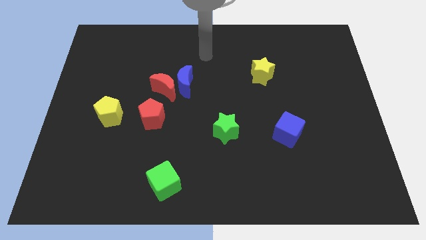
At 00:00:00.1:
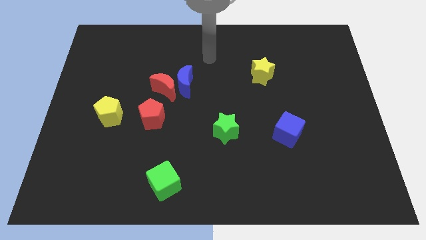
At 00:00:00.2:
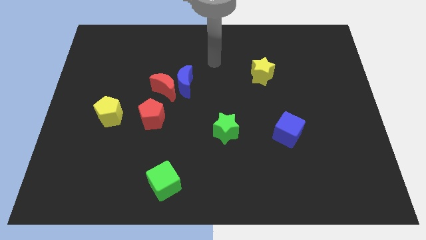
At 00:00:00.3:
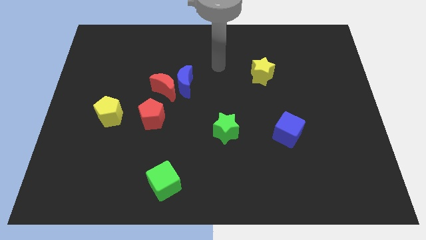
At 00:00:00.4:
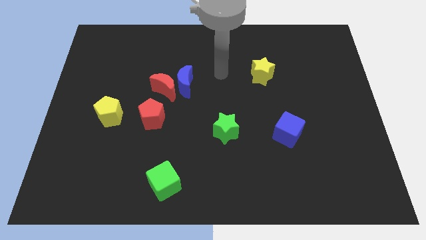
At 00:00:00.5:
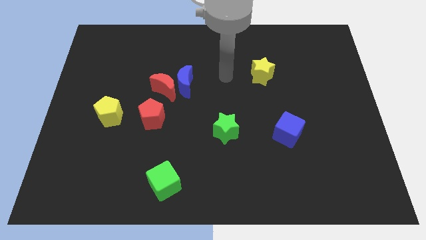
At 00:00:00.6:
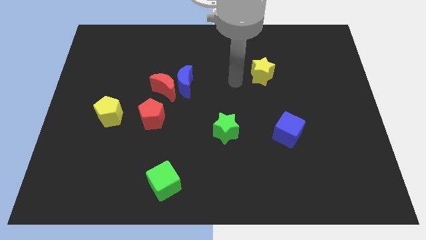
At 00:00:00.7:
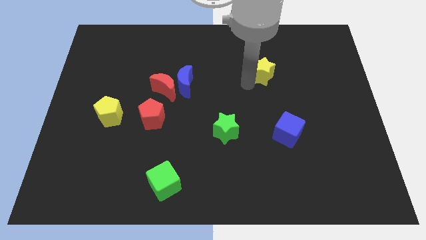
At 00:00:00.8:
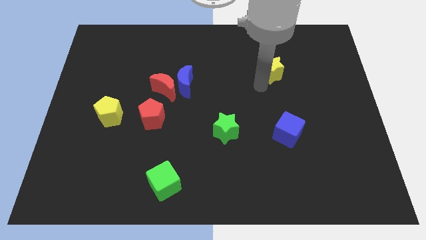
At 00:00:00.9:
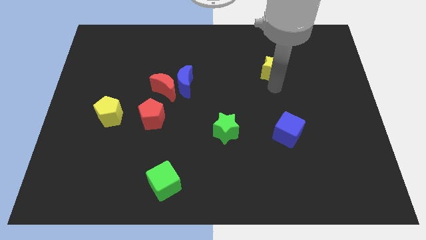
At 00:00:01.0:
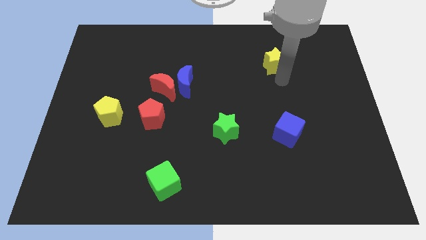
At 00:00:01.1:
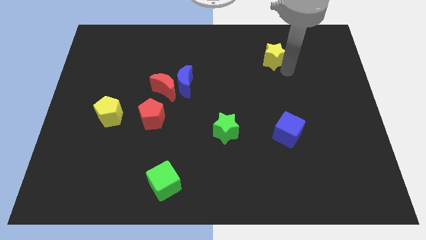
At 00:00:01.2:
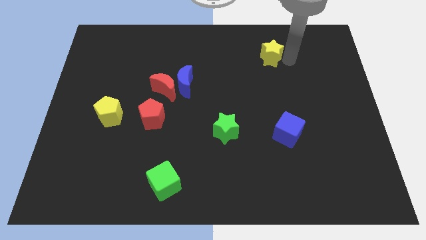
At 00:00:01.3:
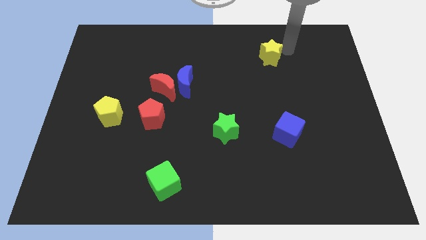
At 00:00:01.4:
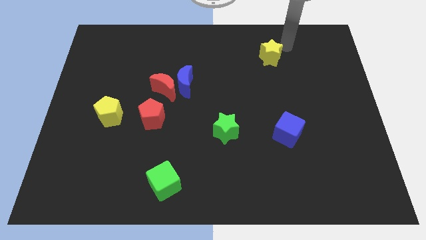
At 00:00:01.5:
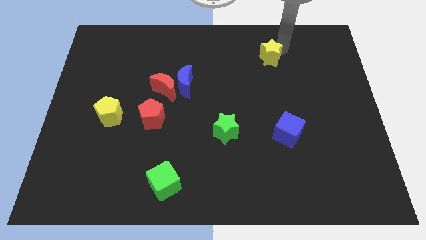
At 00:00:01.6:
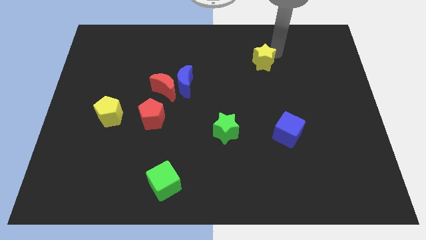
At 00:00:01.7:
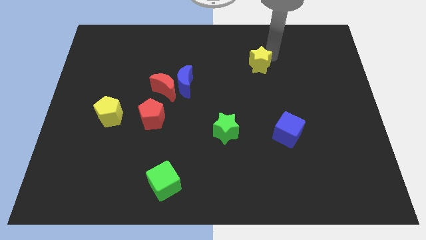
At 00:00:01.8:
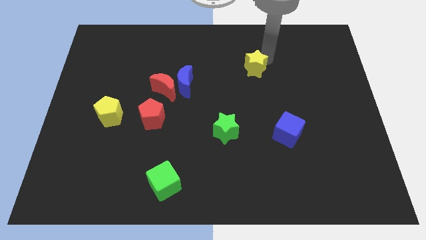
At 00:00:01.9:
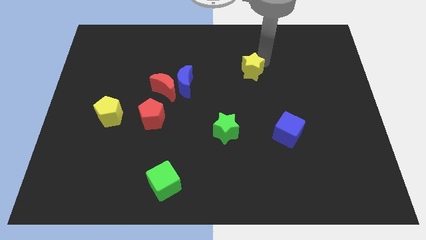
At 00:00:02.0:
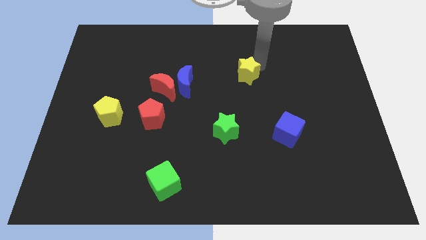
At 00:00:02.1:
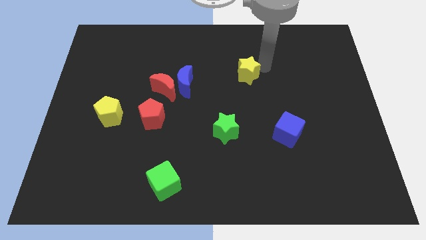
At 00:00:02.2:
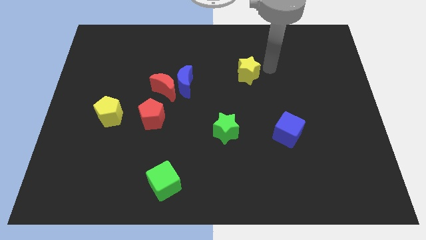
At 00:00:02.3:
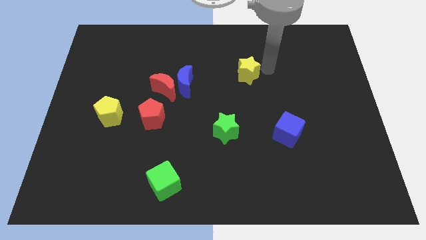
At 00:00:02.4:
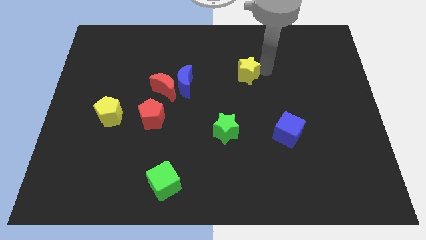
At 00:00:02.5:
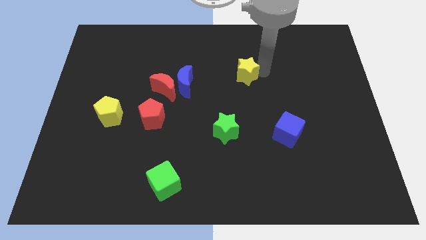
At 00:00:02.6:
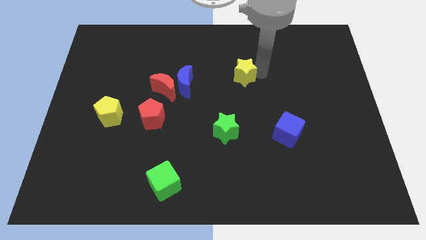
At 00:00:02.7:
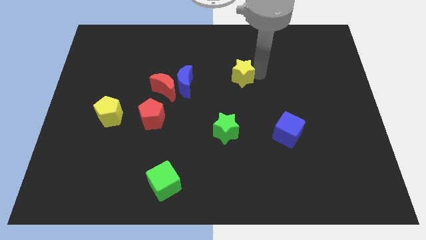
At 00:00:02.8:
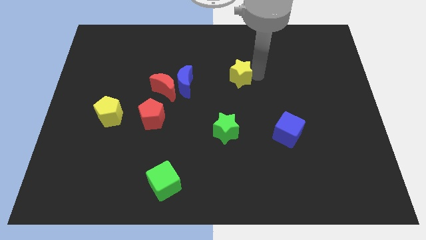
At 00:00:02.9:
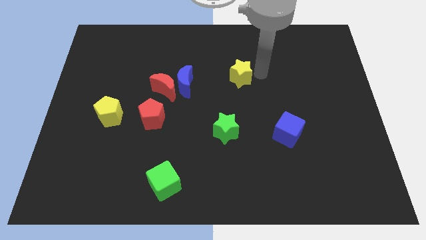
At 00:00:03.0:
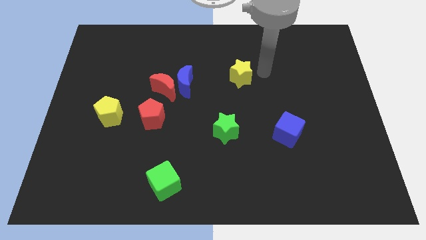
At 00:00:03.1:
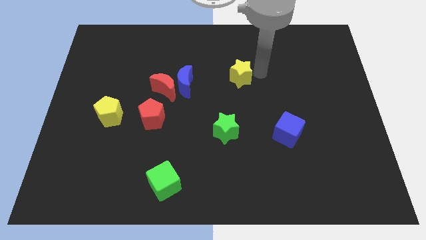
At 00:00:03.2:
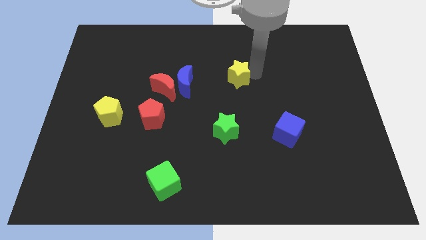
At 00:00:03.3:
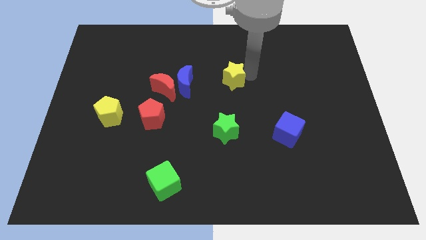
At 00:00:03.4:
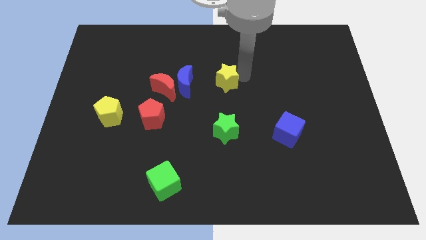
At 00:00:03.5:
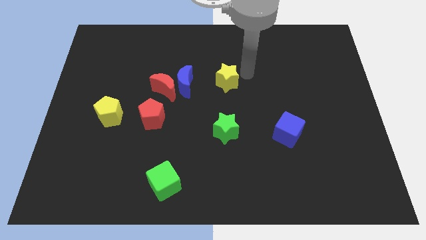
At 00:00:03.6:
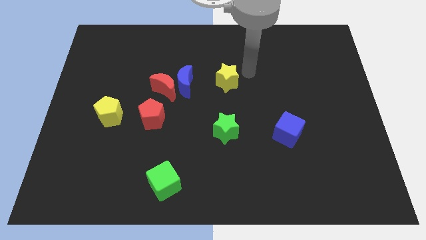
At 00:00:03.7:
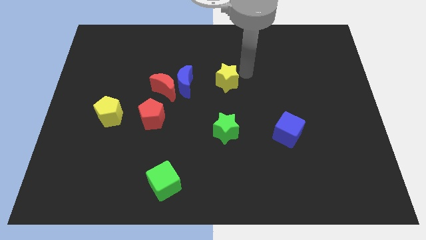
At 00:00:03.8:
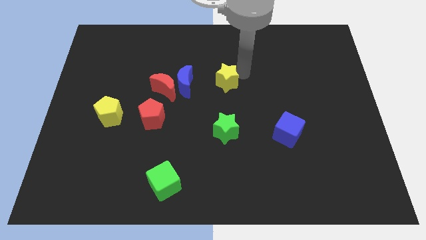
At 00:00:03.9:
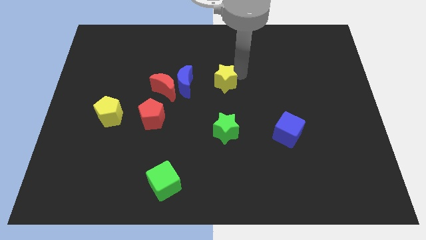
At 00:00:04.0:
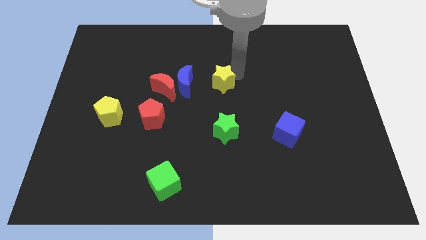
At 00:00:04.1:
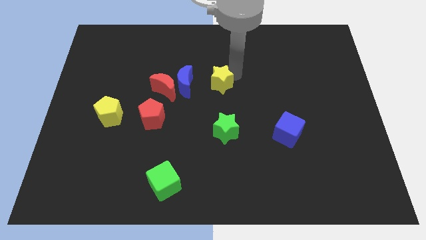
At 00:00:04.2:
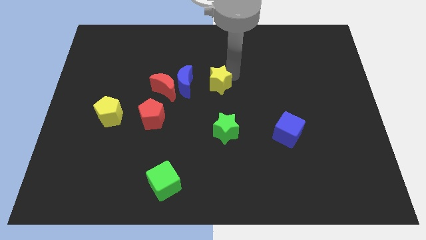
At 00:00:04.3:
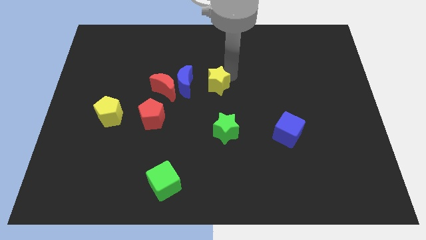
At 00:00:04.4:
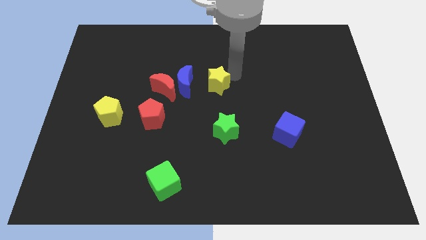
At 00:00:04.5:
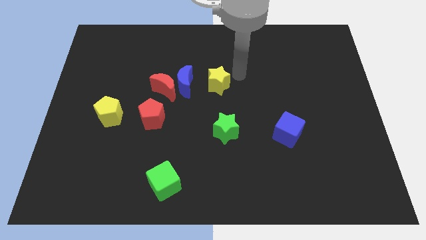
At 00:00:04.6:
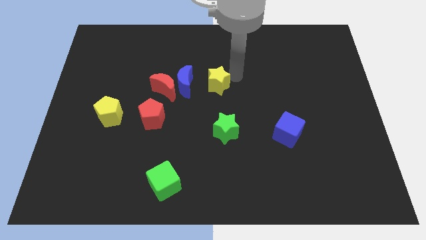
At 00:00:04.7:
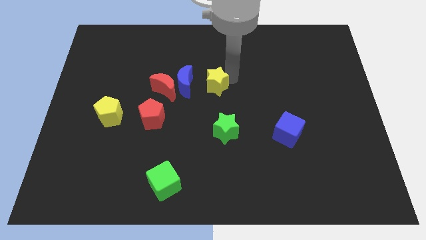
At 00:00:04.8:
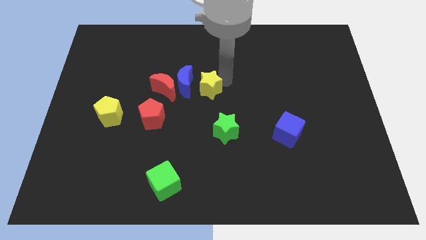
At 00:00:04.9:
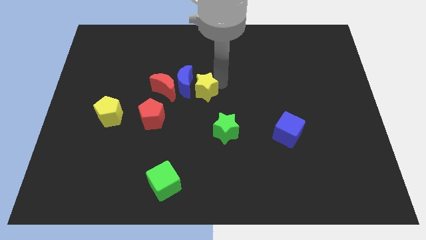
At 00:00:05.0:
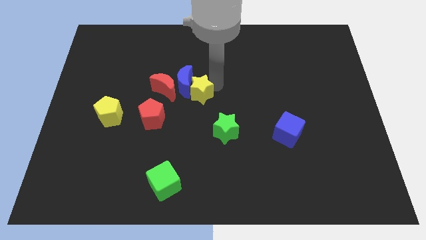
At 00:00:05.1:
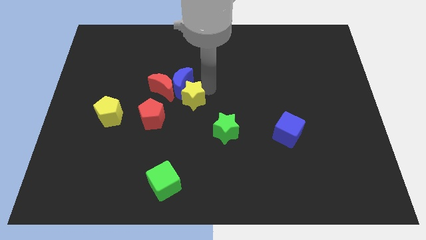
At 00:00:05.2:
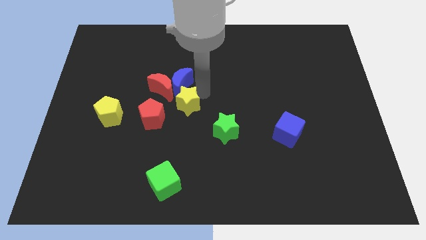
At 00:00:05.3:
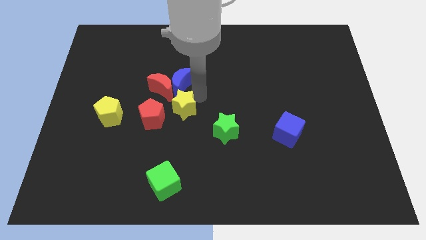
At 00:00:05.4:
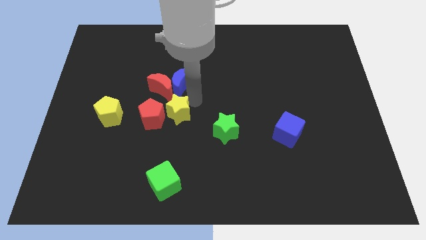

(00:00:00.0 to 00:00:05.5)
move the yellow star to the red pentagon

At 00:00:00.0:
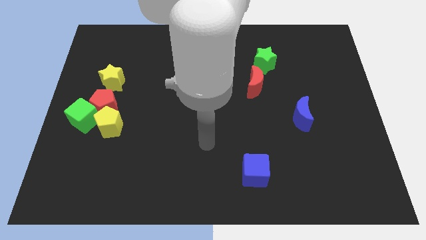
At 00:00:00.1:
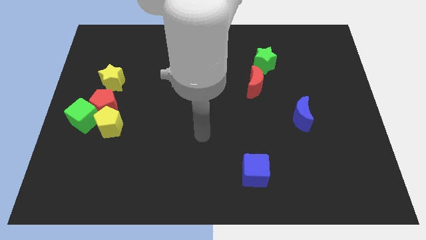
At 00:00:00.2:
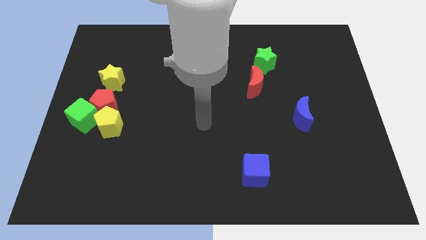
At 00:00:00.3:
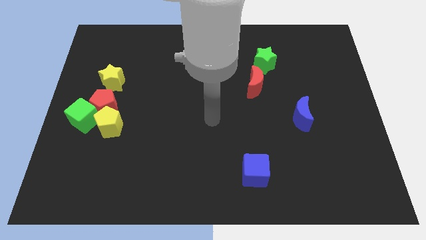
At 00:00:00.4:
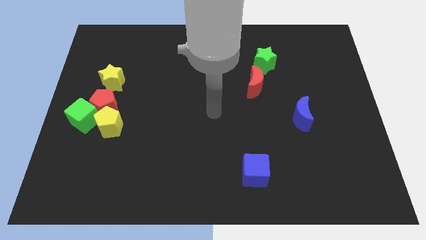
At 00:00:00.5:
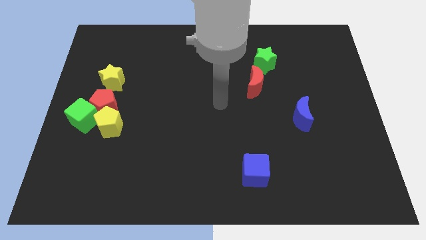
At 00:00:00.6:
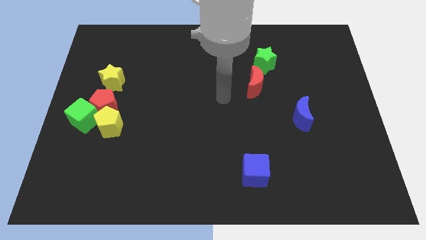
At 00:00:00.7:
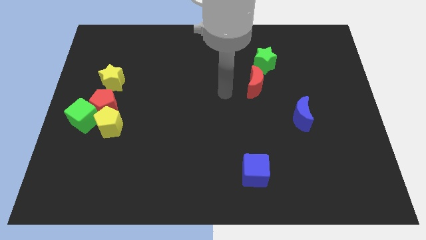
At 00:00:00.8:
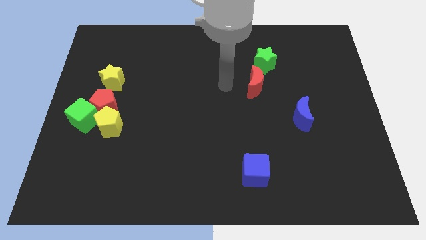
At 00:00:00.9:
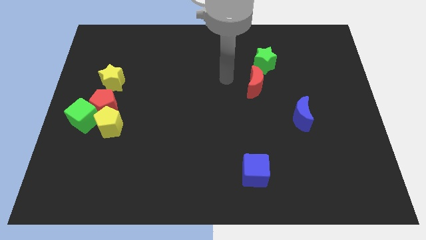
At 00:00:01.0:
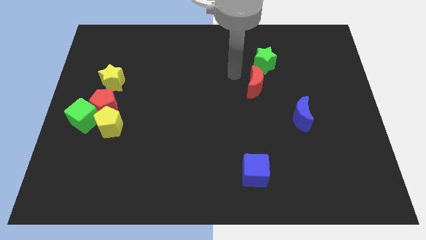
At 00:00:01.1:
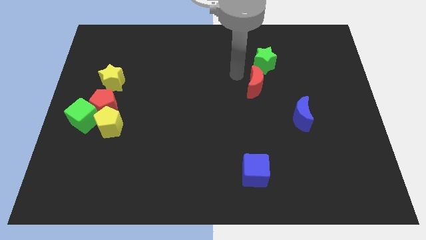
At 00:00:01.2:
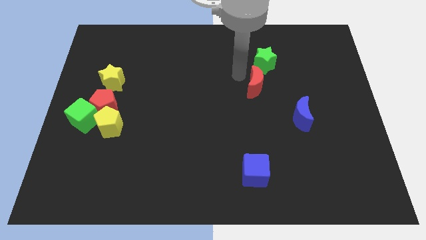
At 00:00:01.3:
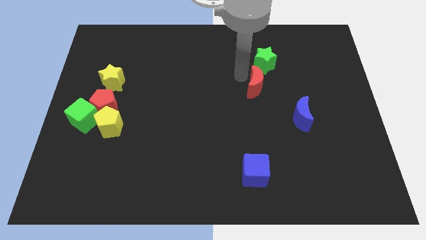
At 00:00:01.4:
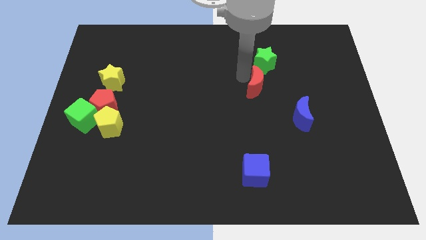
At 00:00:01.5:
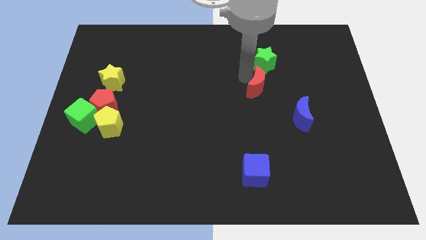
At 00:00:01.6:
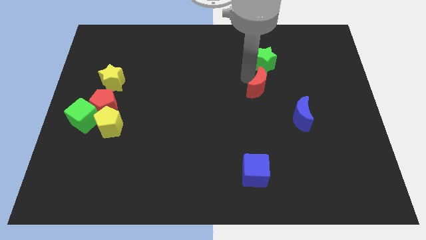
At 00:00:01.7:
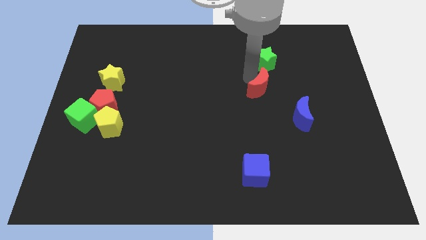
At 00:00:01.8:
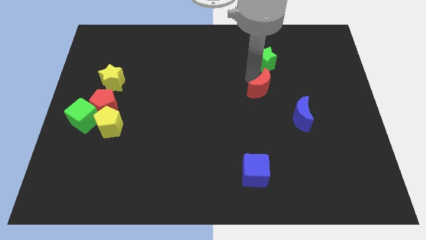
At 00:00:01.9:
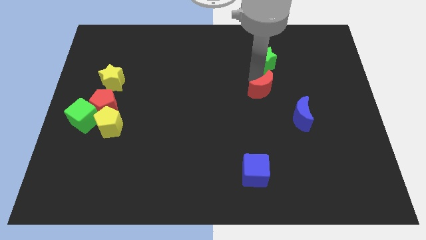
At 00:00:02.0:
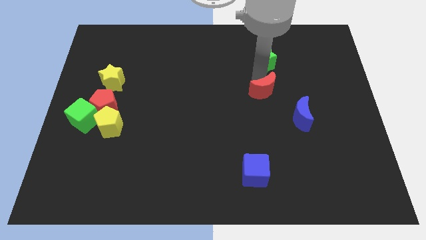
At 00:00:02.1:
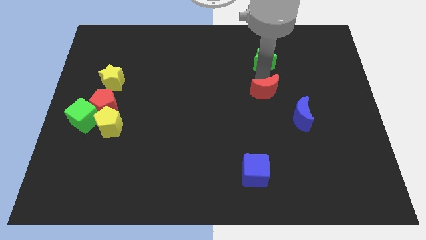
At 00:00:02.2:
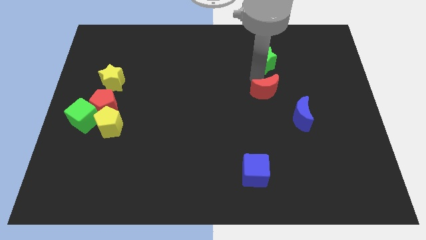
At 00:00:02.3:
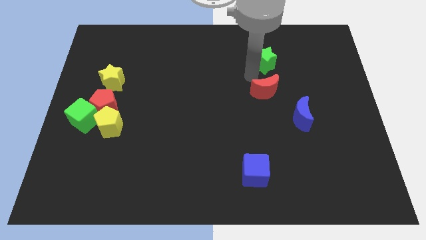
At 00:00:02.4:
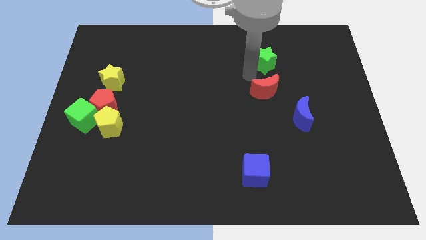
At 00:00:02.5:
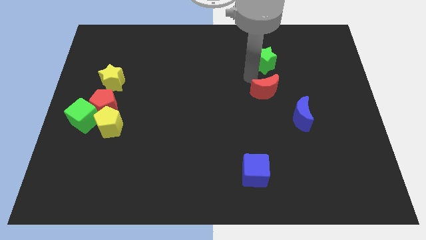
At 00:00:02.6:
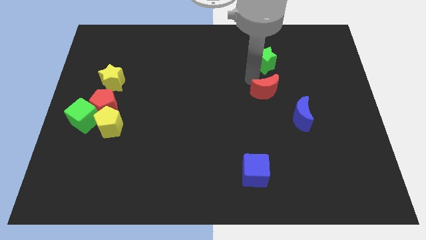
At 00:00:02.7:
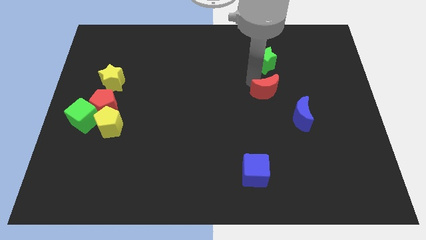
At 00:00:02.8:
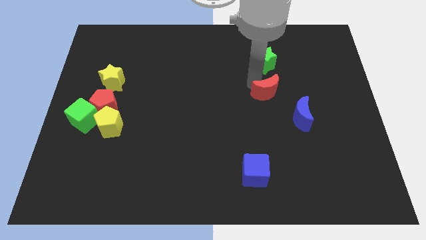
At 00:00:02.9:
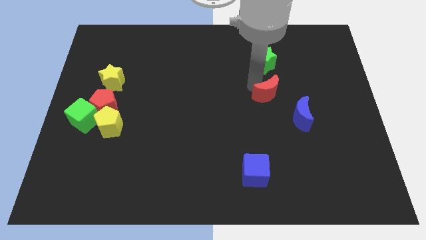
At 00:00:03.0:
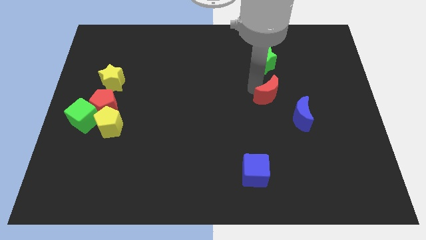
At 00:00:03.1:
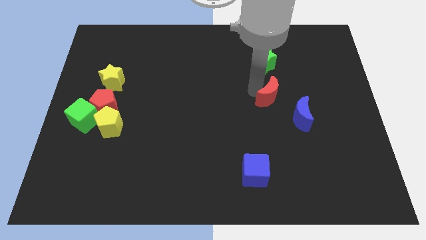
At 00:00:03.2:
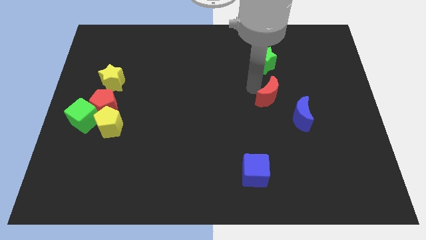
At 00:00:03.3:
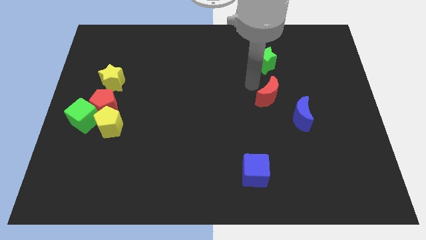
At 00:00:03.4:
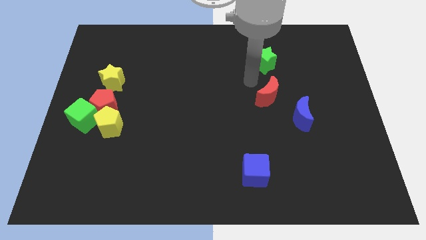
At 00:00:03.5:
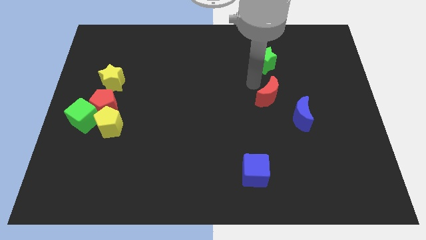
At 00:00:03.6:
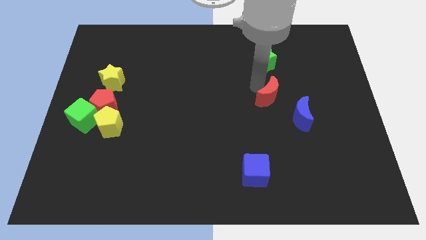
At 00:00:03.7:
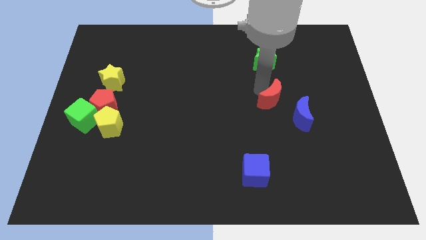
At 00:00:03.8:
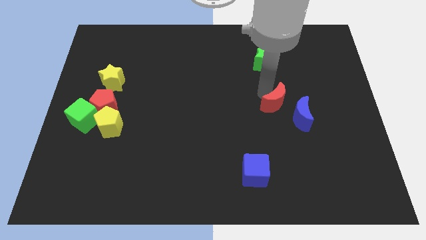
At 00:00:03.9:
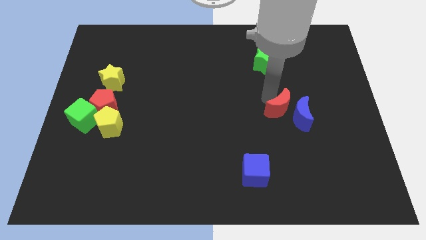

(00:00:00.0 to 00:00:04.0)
move the red moon close to the blue moon
